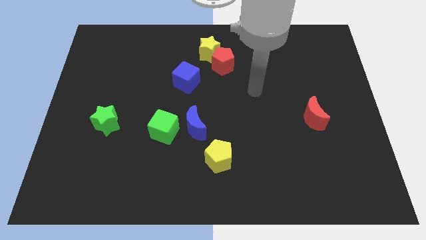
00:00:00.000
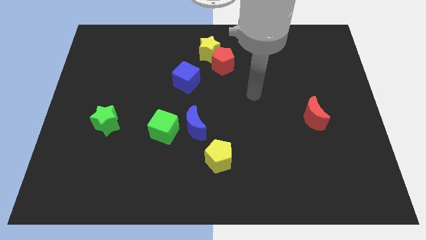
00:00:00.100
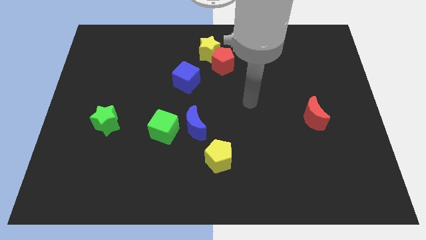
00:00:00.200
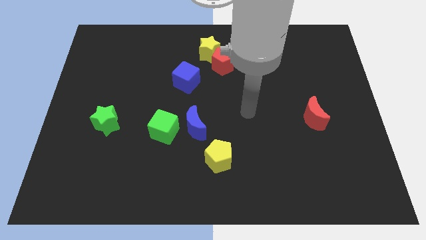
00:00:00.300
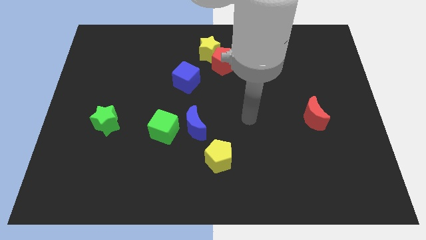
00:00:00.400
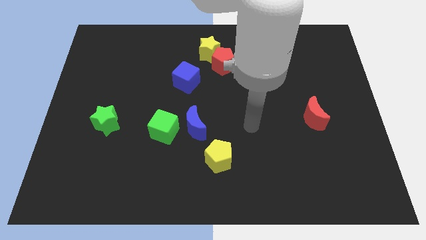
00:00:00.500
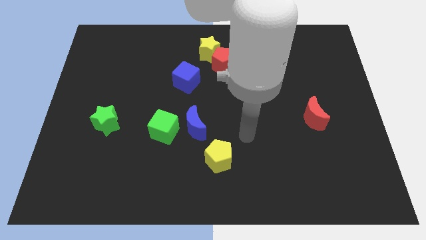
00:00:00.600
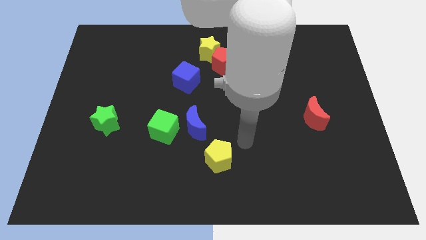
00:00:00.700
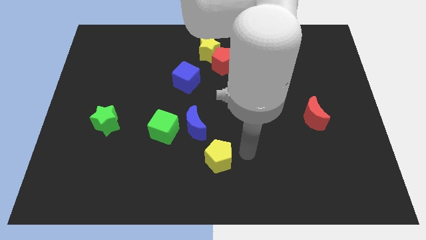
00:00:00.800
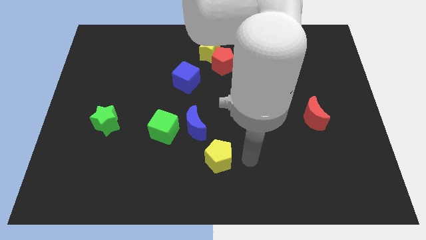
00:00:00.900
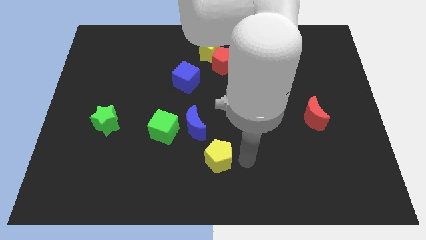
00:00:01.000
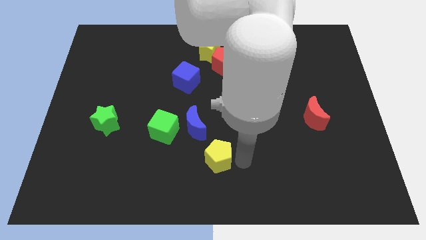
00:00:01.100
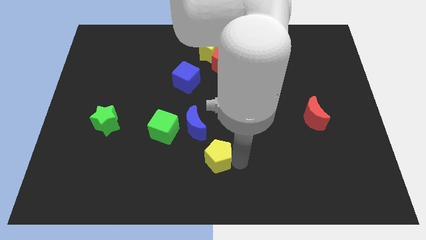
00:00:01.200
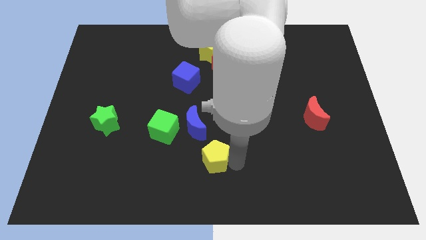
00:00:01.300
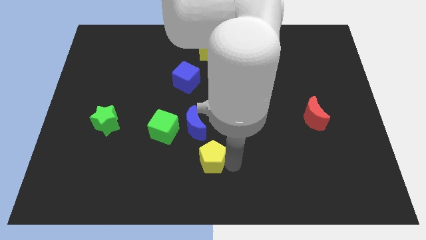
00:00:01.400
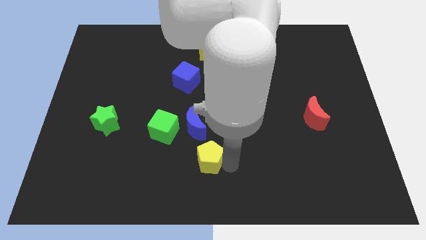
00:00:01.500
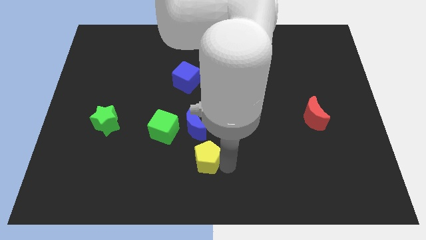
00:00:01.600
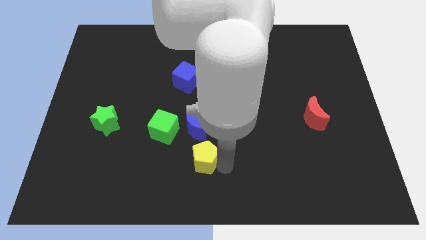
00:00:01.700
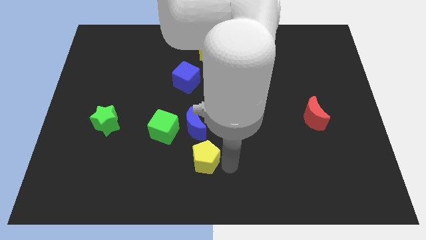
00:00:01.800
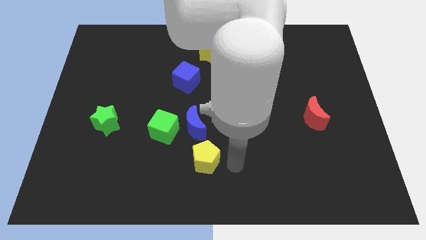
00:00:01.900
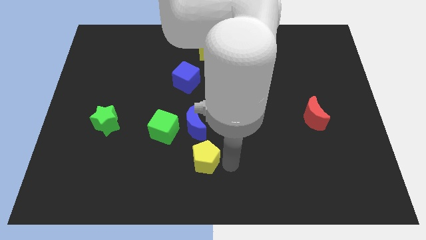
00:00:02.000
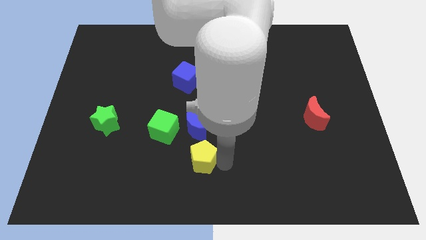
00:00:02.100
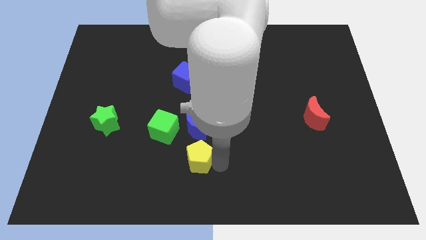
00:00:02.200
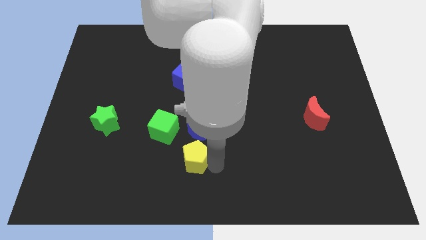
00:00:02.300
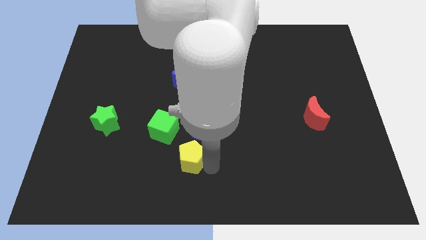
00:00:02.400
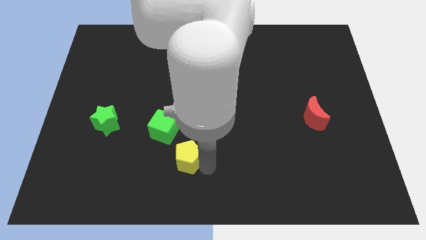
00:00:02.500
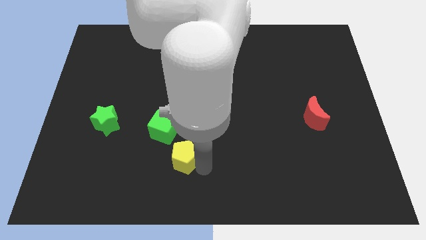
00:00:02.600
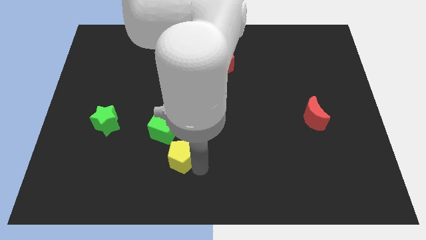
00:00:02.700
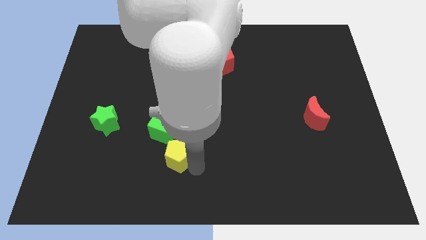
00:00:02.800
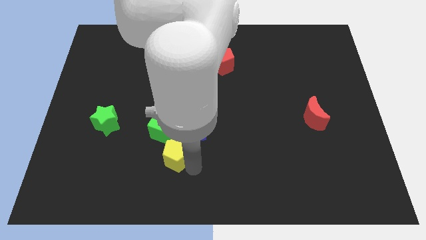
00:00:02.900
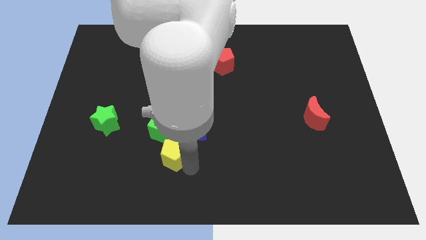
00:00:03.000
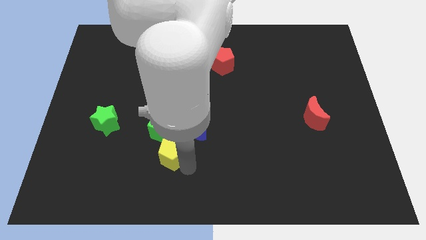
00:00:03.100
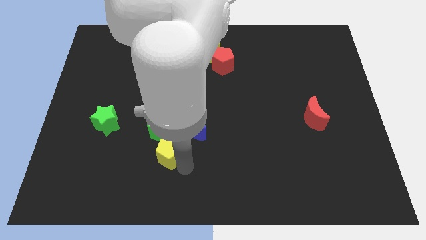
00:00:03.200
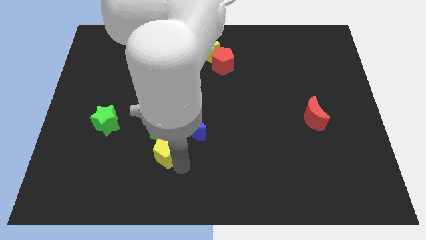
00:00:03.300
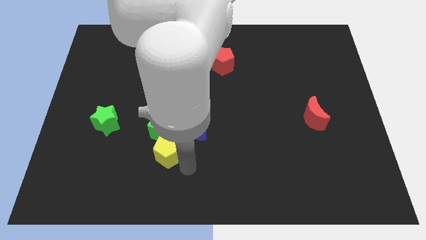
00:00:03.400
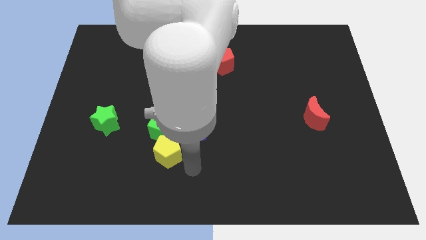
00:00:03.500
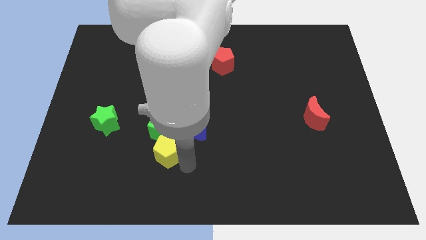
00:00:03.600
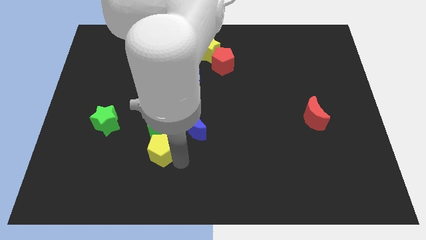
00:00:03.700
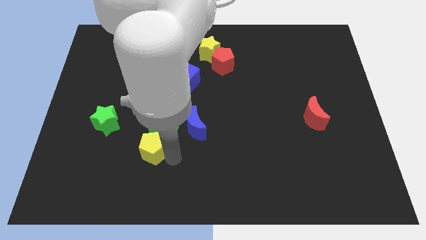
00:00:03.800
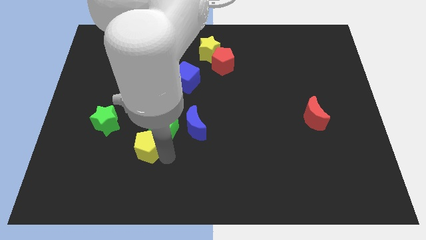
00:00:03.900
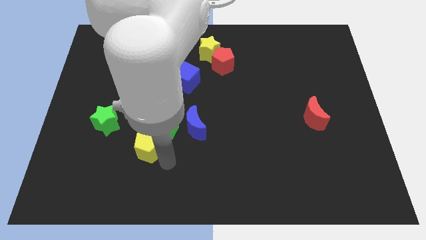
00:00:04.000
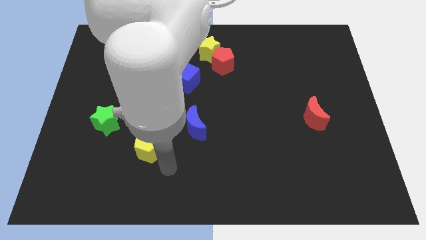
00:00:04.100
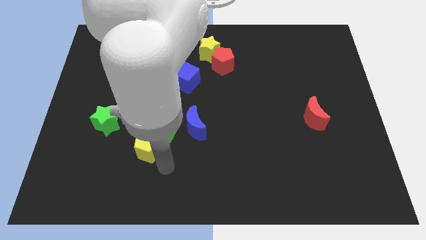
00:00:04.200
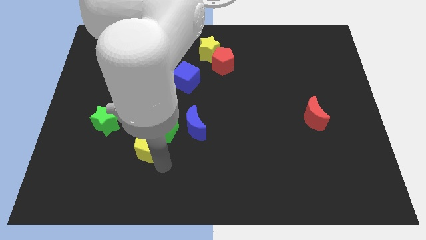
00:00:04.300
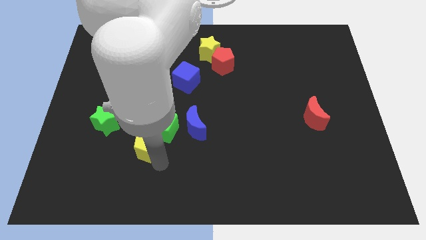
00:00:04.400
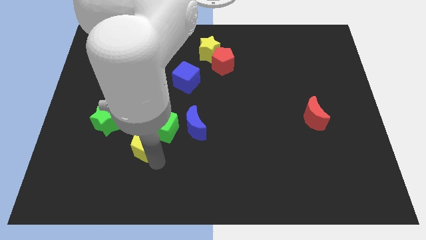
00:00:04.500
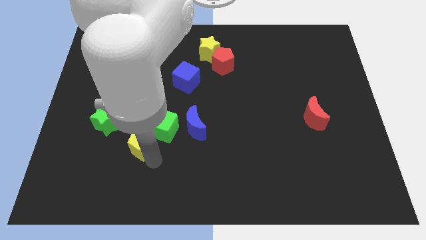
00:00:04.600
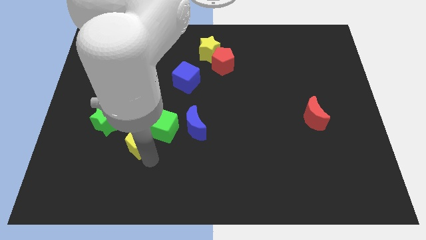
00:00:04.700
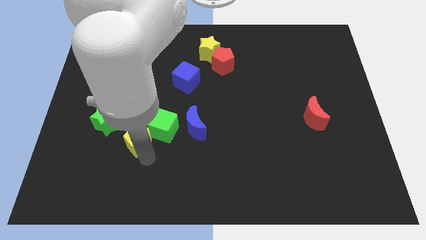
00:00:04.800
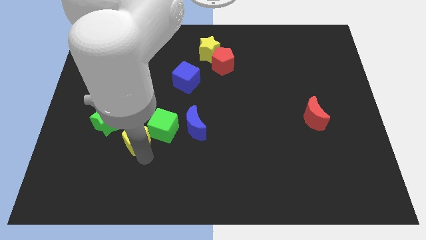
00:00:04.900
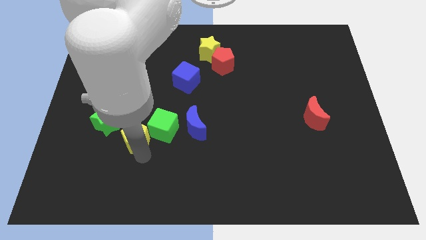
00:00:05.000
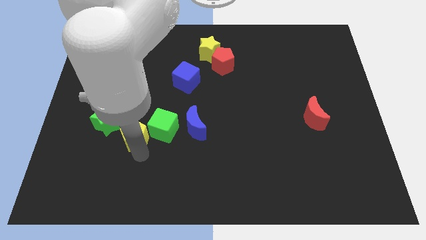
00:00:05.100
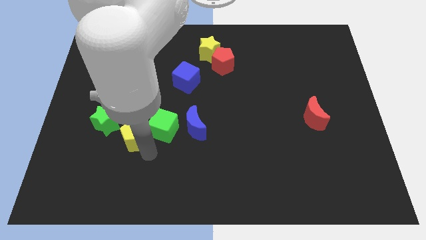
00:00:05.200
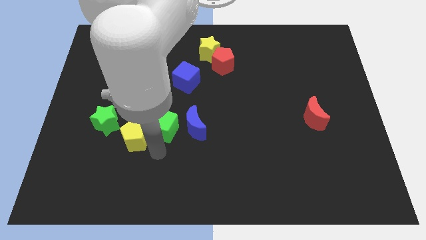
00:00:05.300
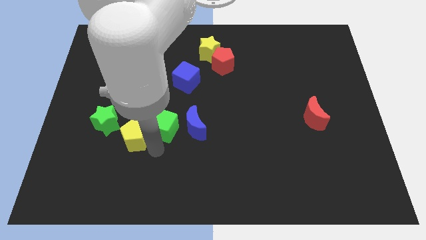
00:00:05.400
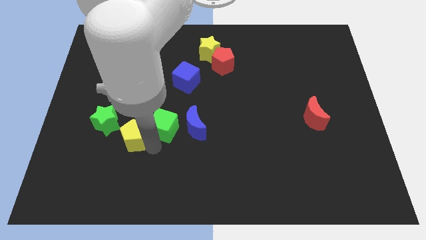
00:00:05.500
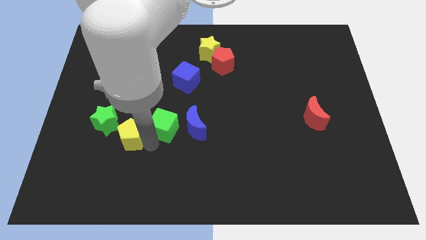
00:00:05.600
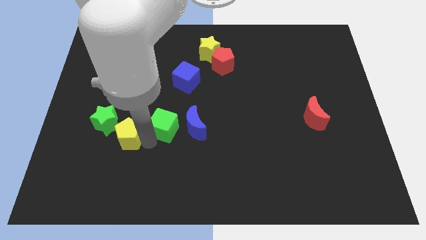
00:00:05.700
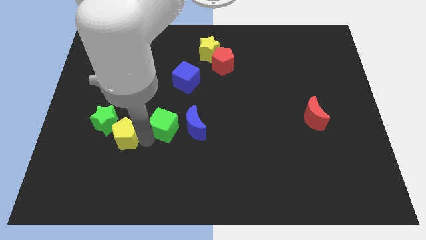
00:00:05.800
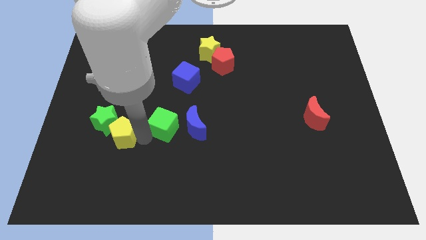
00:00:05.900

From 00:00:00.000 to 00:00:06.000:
move the yellow pentagon close to the green star

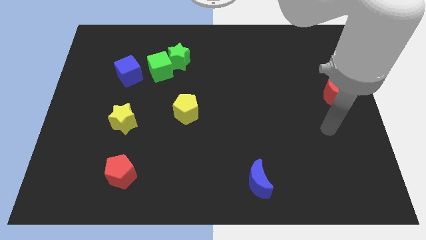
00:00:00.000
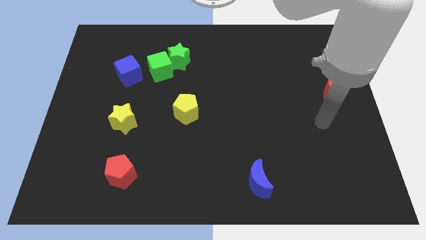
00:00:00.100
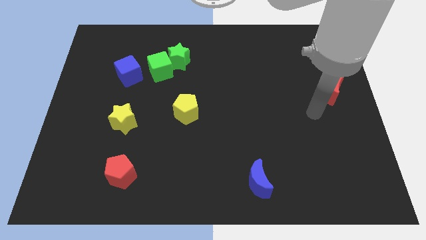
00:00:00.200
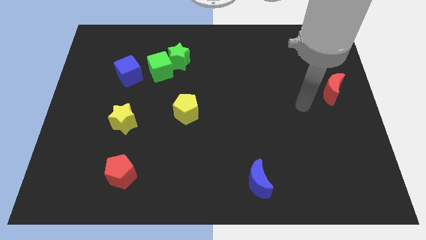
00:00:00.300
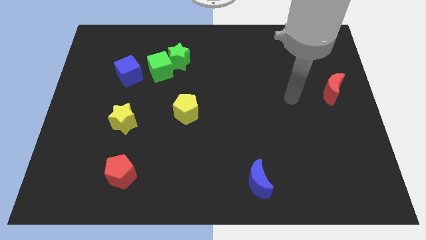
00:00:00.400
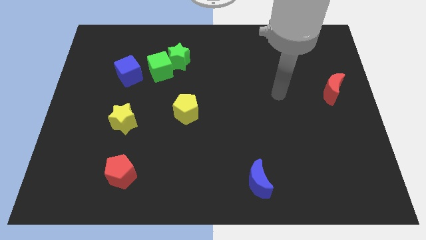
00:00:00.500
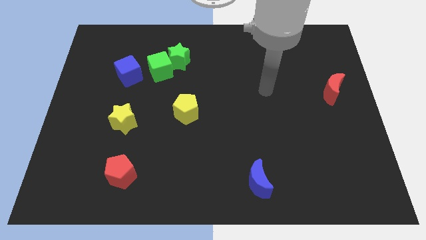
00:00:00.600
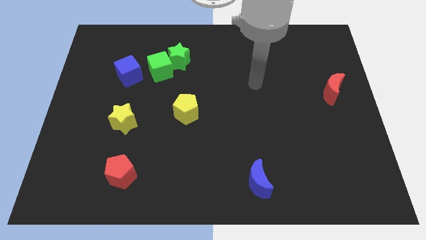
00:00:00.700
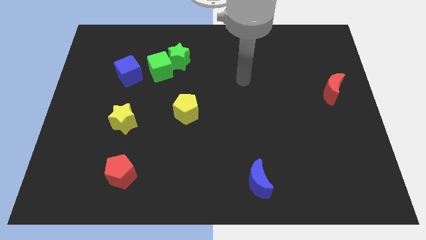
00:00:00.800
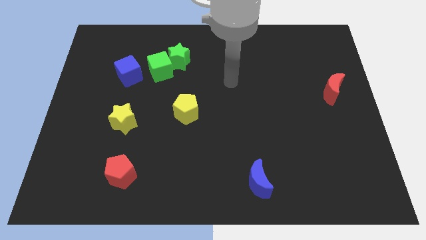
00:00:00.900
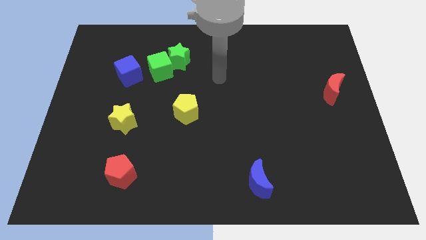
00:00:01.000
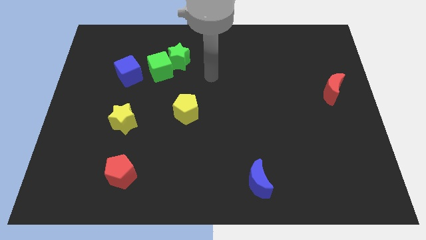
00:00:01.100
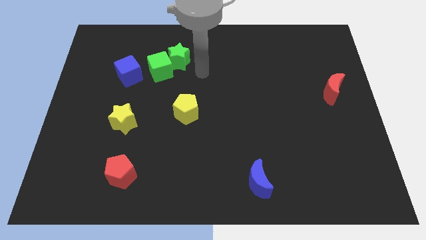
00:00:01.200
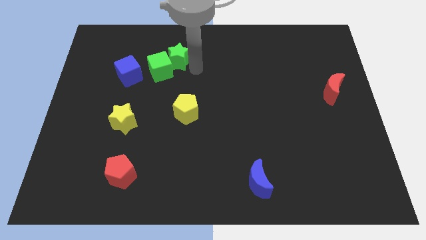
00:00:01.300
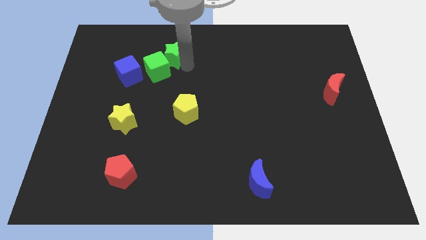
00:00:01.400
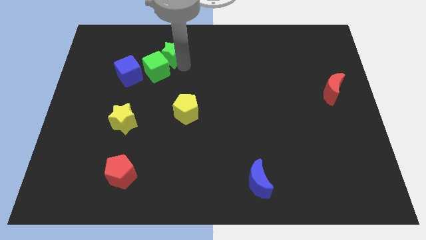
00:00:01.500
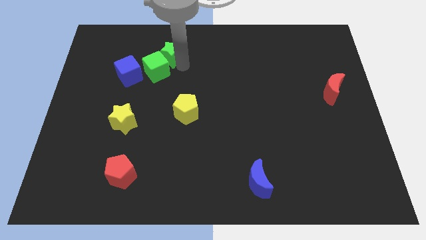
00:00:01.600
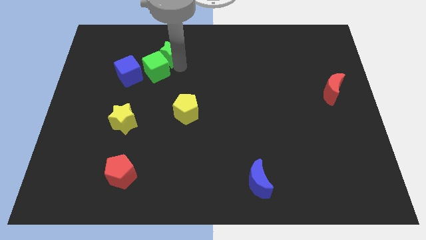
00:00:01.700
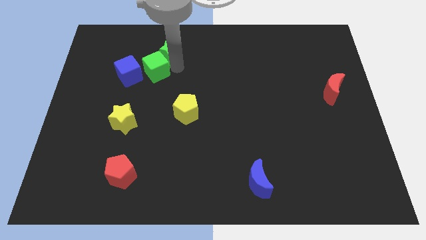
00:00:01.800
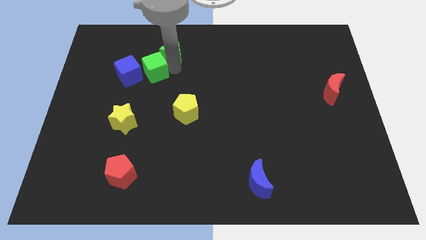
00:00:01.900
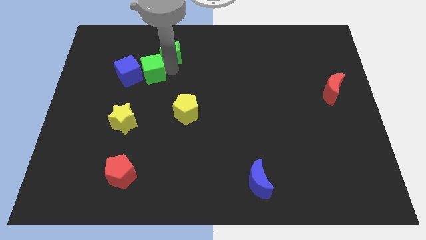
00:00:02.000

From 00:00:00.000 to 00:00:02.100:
put the green cube close to the blue cube

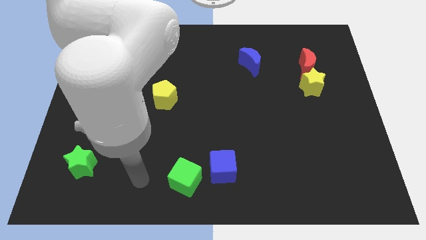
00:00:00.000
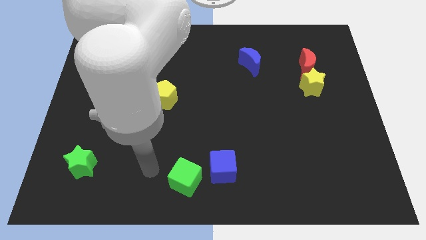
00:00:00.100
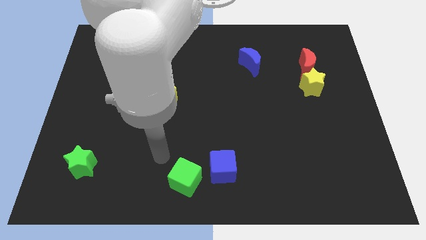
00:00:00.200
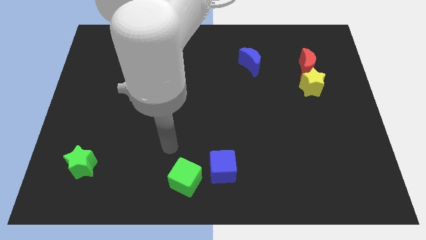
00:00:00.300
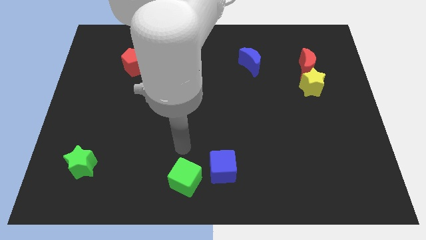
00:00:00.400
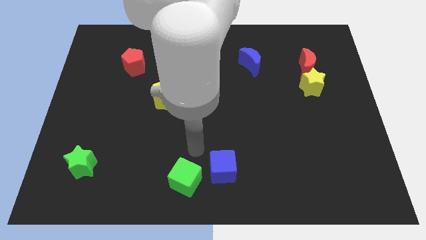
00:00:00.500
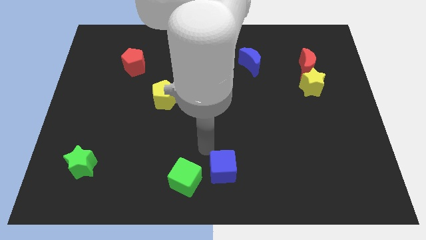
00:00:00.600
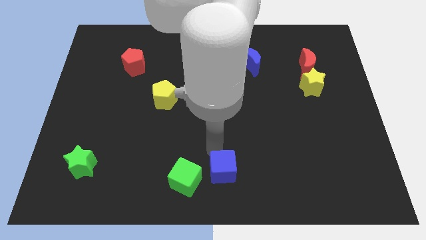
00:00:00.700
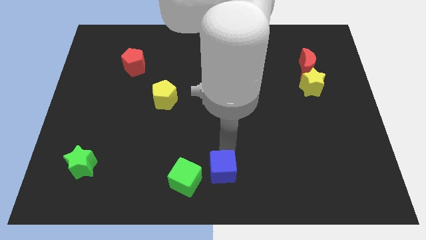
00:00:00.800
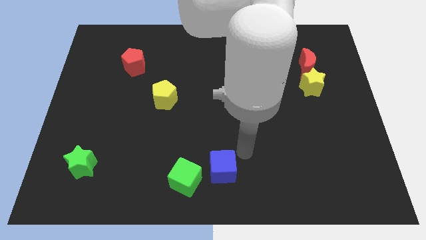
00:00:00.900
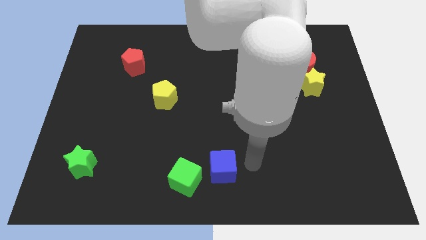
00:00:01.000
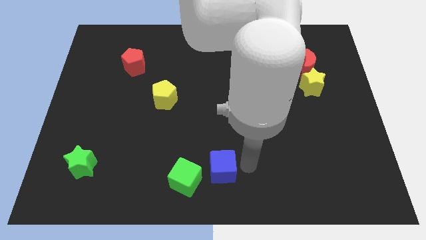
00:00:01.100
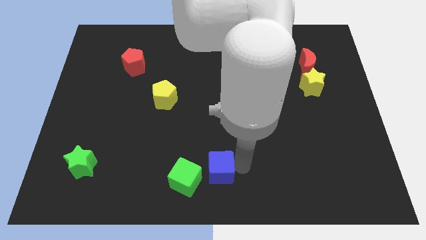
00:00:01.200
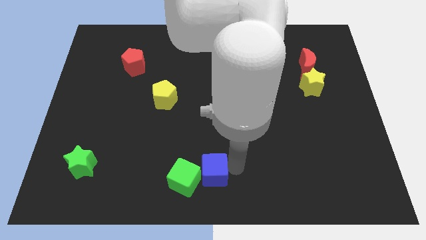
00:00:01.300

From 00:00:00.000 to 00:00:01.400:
slide the blue cube close to the green cube
